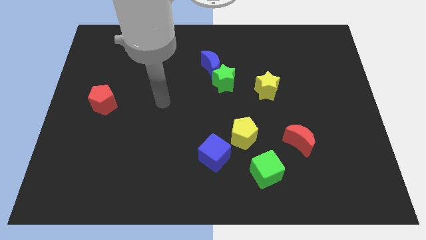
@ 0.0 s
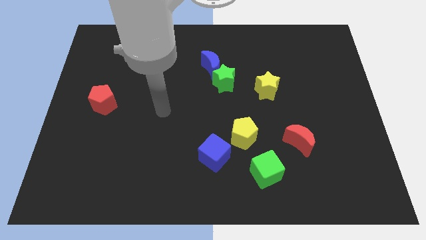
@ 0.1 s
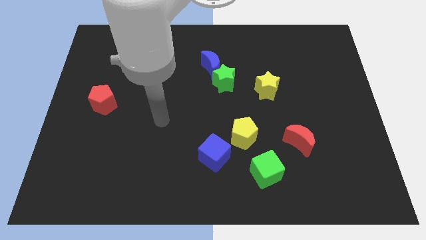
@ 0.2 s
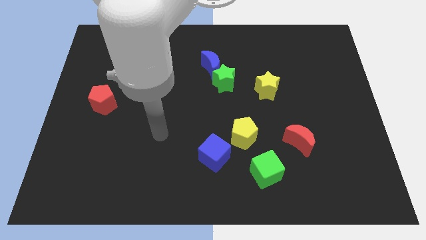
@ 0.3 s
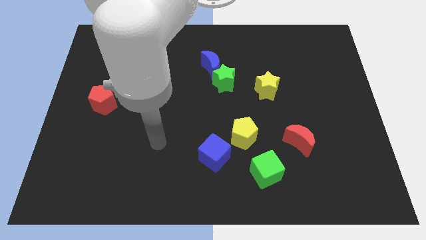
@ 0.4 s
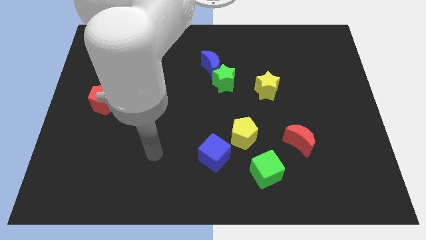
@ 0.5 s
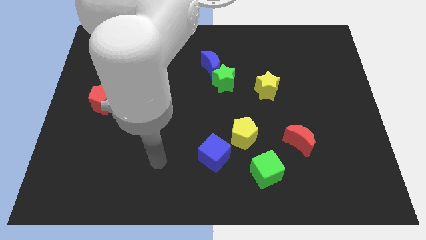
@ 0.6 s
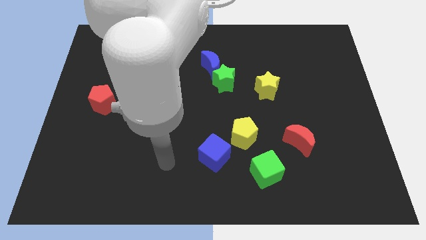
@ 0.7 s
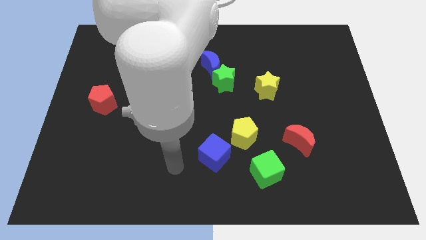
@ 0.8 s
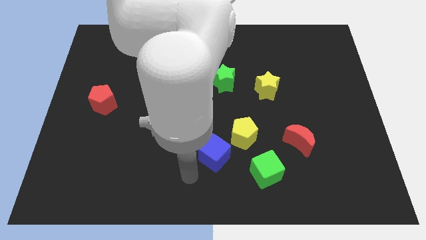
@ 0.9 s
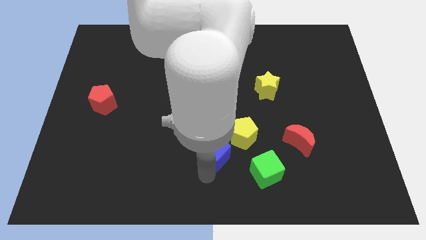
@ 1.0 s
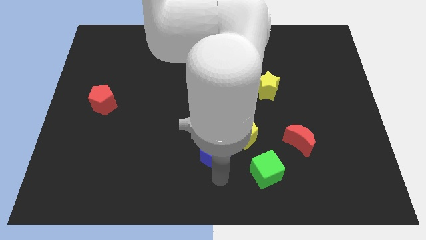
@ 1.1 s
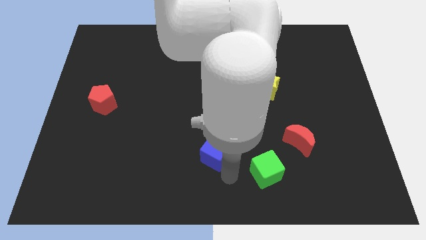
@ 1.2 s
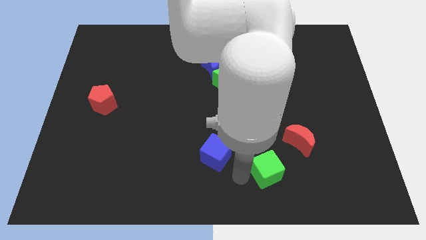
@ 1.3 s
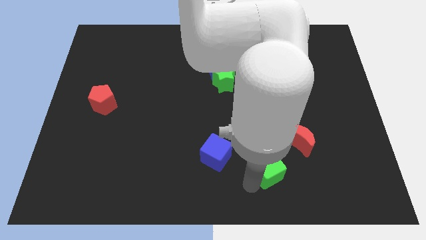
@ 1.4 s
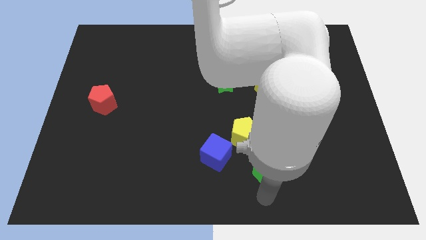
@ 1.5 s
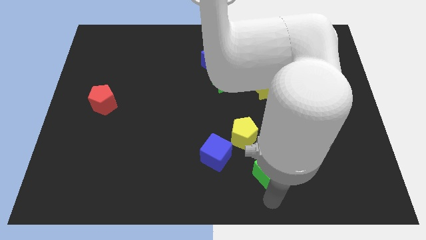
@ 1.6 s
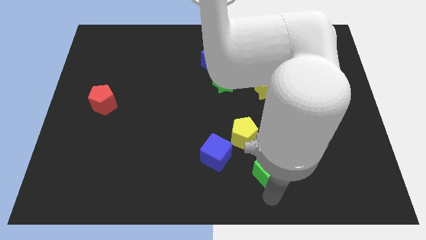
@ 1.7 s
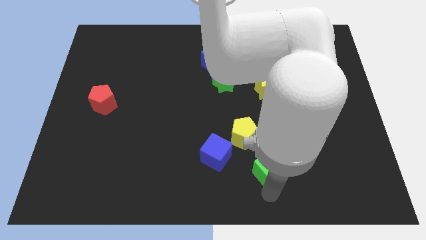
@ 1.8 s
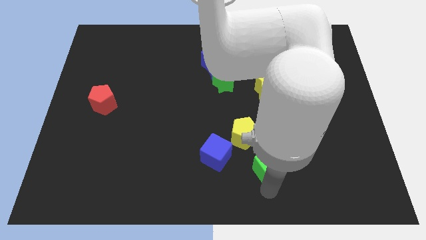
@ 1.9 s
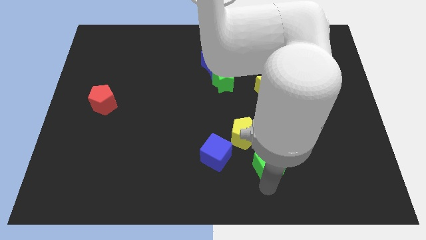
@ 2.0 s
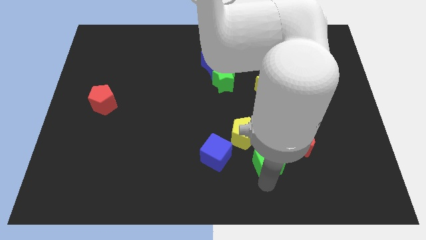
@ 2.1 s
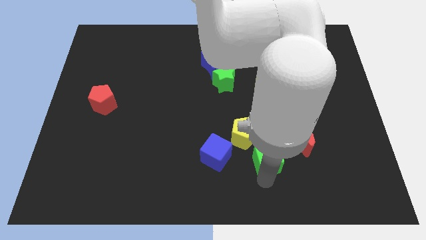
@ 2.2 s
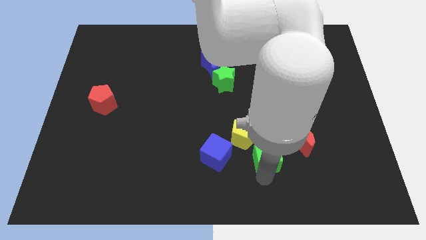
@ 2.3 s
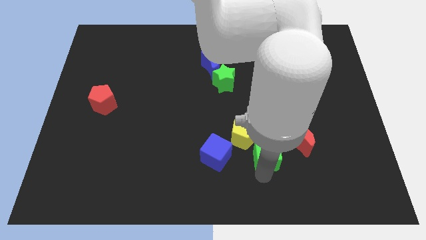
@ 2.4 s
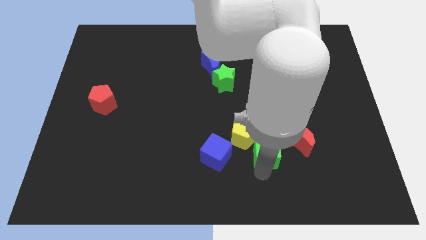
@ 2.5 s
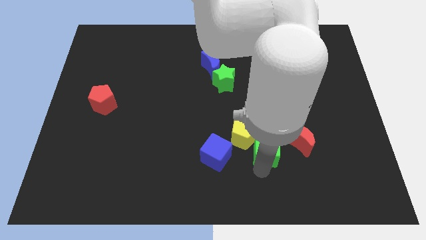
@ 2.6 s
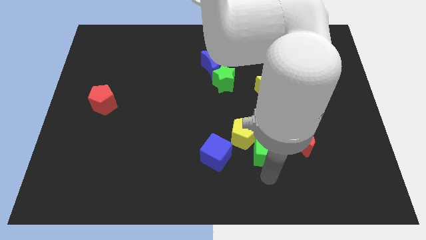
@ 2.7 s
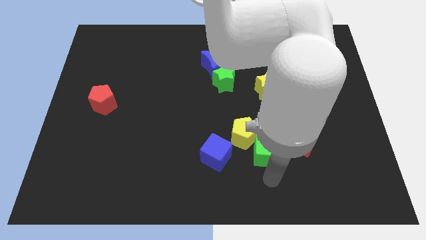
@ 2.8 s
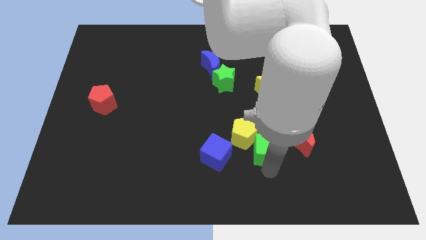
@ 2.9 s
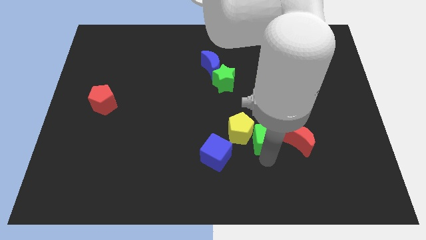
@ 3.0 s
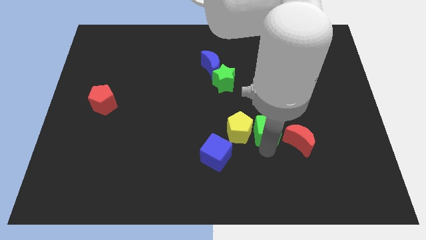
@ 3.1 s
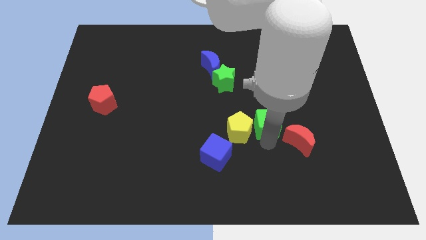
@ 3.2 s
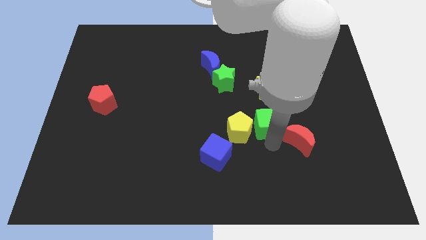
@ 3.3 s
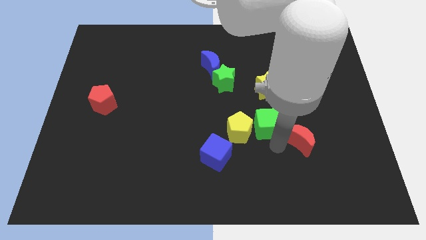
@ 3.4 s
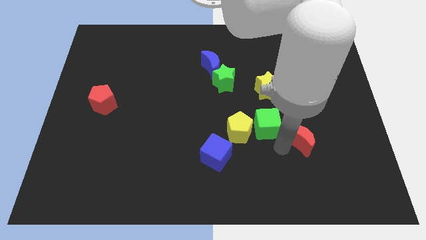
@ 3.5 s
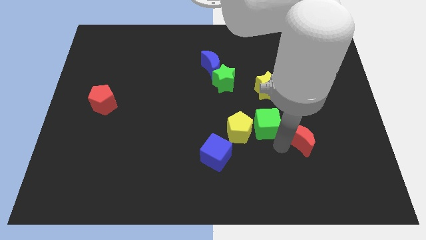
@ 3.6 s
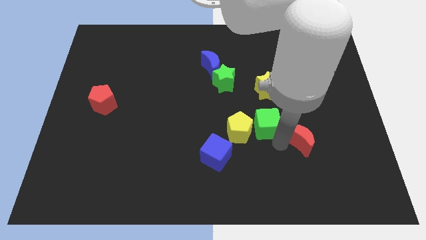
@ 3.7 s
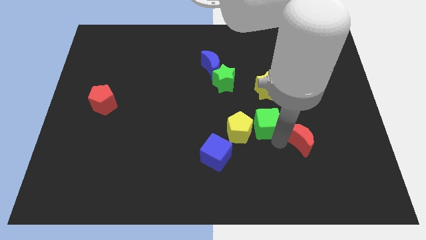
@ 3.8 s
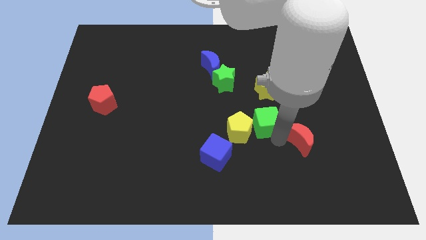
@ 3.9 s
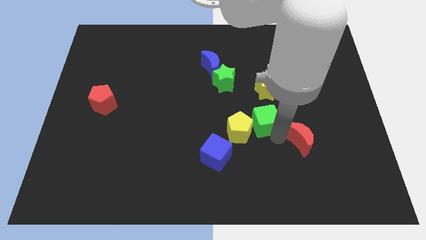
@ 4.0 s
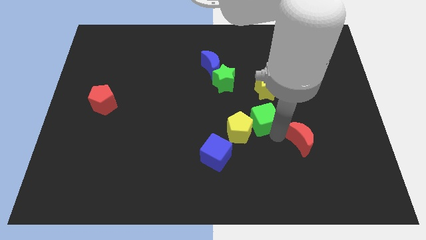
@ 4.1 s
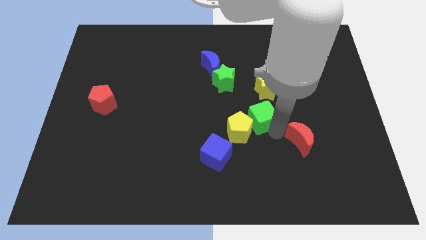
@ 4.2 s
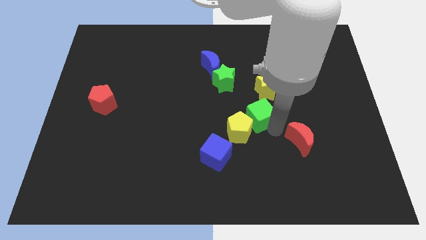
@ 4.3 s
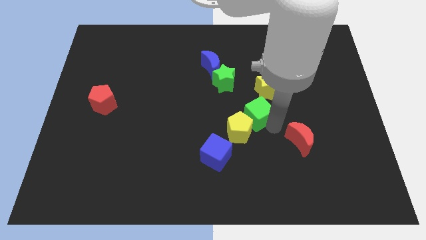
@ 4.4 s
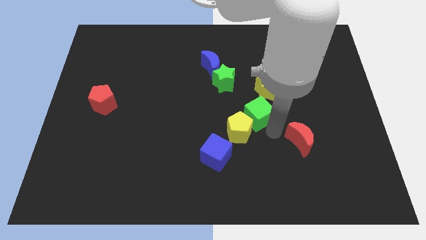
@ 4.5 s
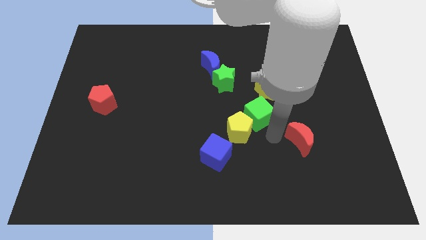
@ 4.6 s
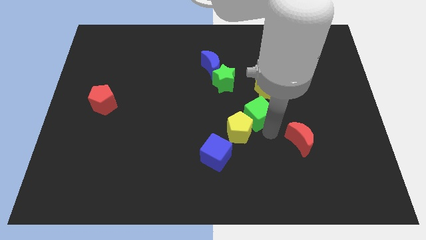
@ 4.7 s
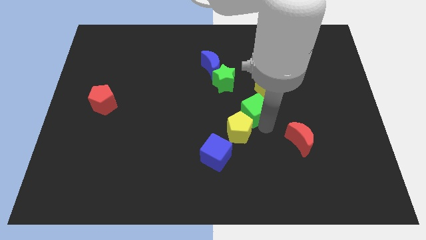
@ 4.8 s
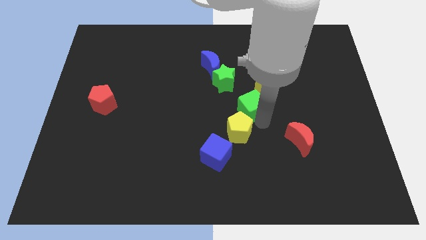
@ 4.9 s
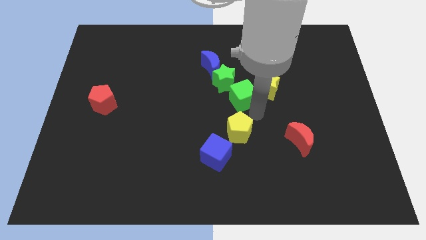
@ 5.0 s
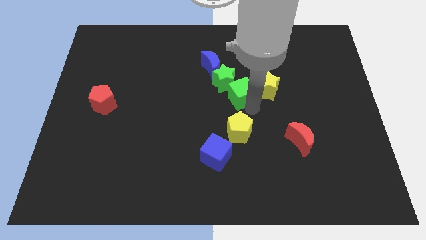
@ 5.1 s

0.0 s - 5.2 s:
move the green cube next to the green star

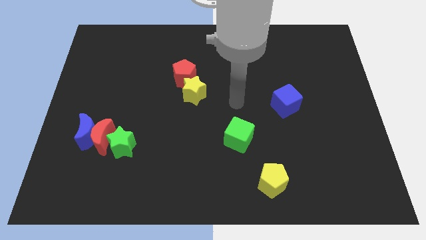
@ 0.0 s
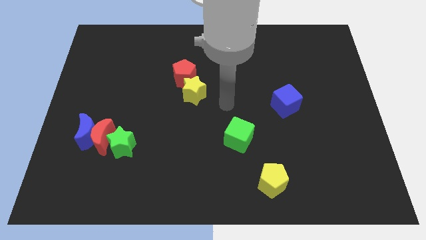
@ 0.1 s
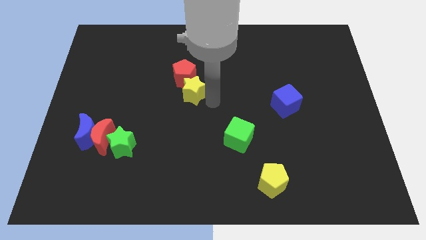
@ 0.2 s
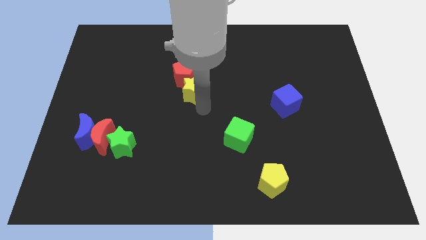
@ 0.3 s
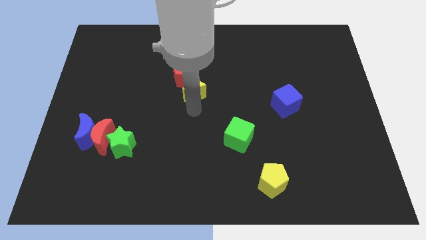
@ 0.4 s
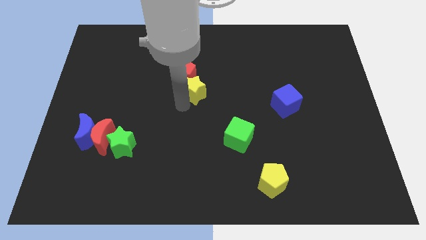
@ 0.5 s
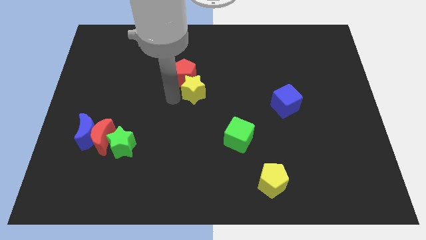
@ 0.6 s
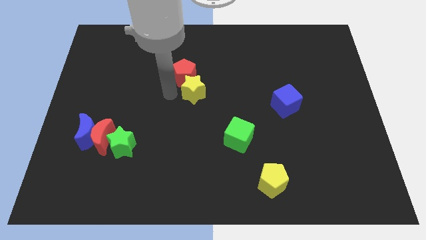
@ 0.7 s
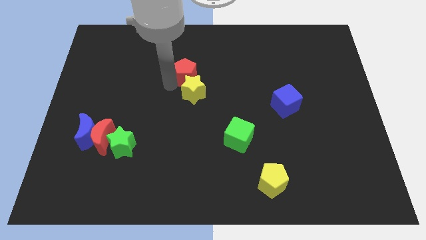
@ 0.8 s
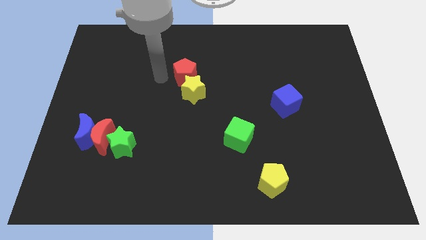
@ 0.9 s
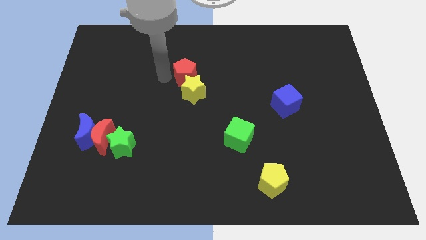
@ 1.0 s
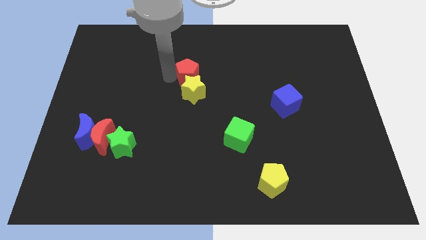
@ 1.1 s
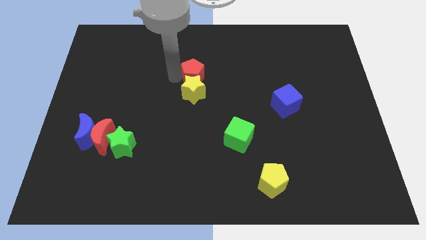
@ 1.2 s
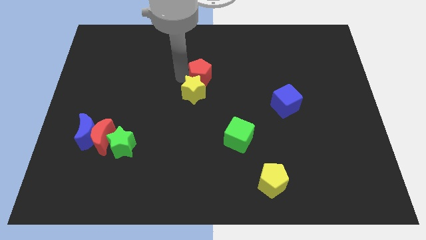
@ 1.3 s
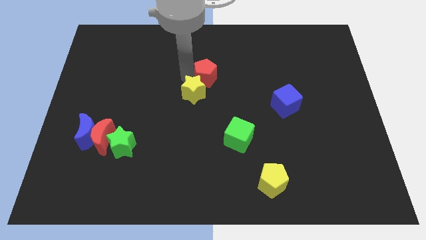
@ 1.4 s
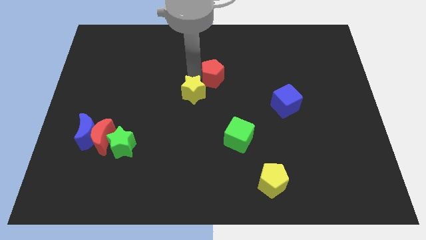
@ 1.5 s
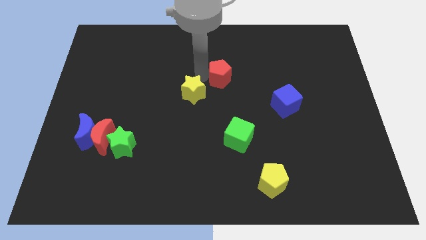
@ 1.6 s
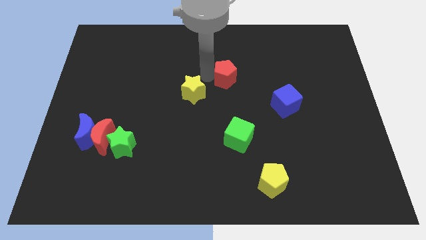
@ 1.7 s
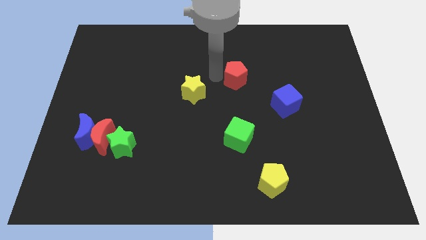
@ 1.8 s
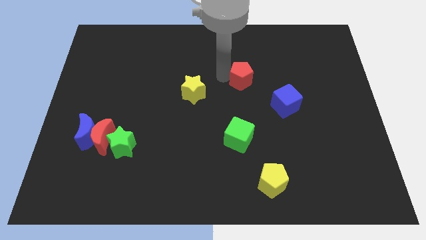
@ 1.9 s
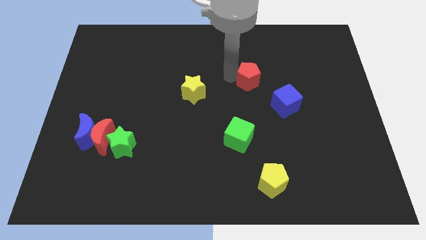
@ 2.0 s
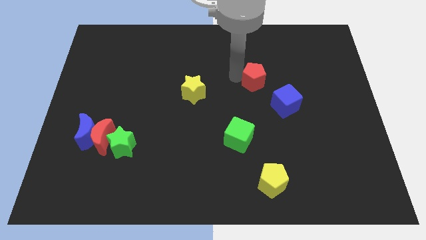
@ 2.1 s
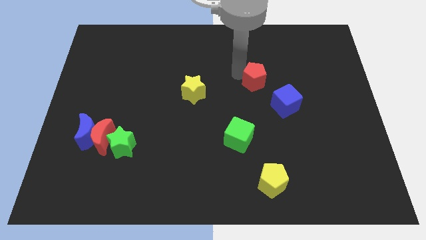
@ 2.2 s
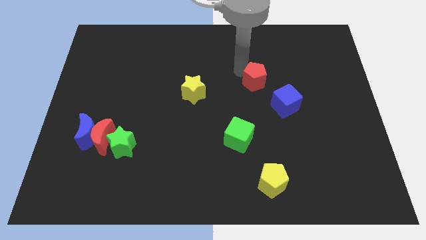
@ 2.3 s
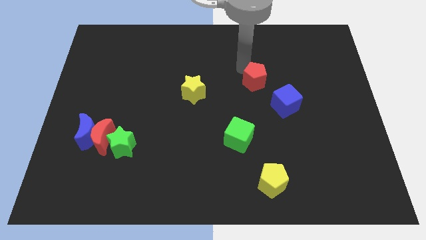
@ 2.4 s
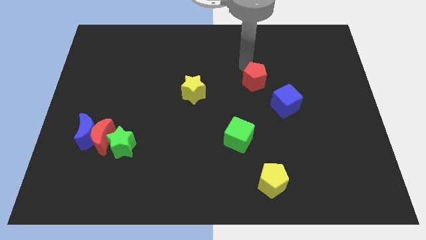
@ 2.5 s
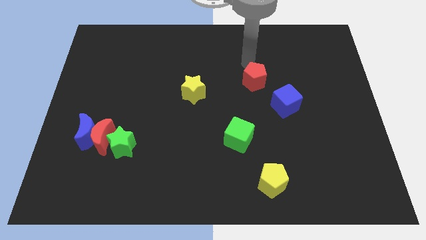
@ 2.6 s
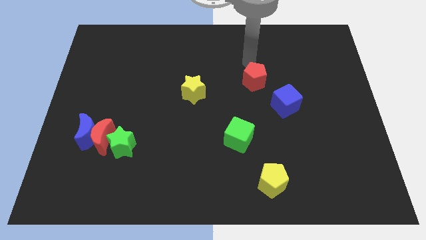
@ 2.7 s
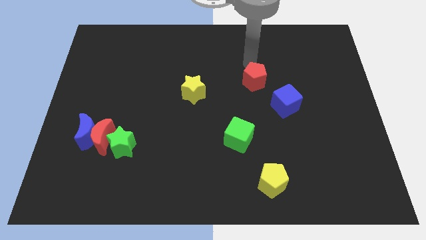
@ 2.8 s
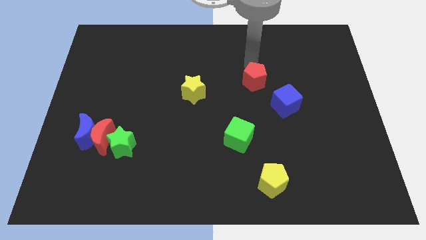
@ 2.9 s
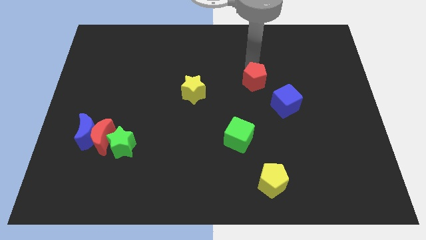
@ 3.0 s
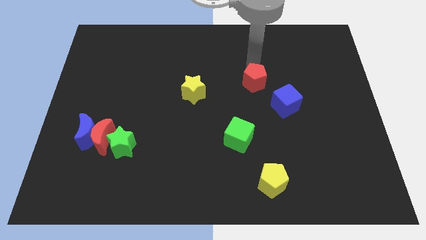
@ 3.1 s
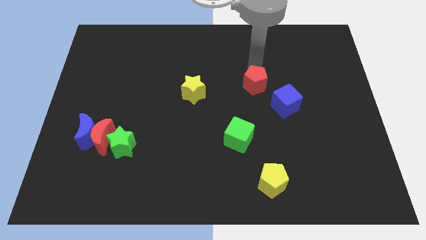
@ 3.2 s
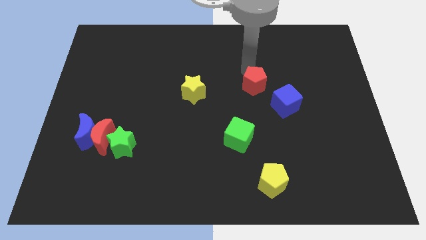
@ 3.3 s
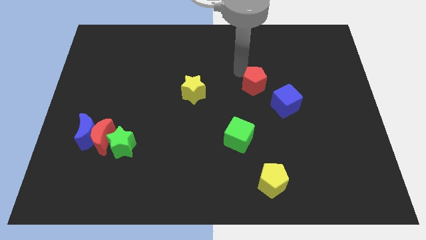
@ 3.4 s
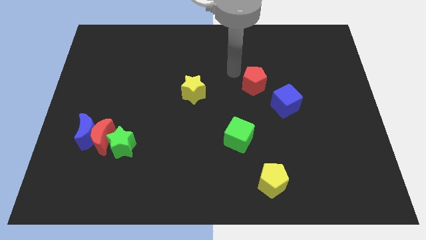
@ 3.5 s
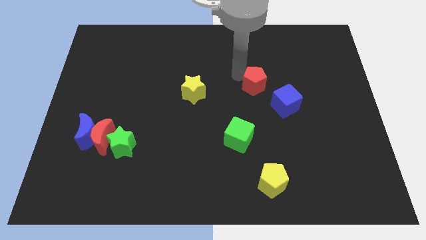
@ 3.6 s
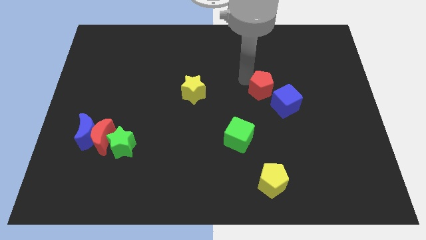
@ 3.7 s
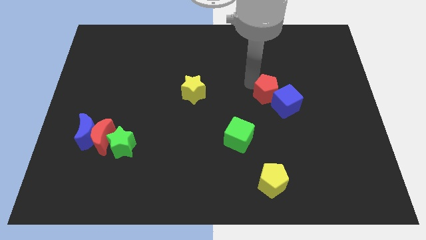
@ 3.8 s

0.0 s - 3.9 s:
move the red pentagon towards the blue cube
